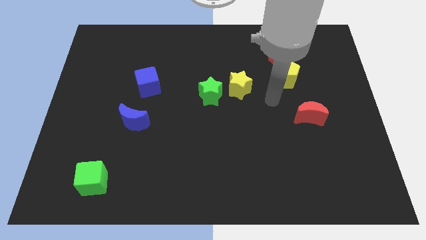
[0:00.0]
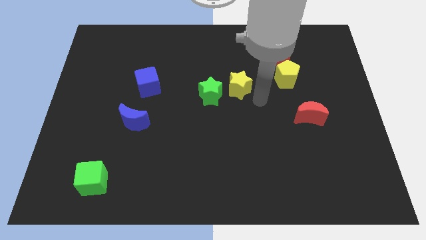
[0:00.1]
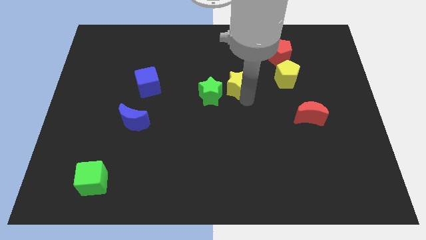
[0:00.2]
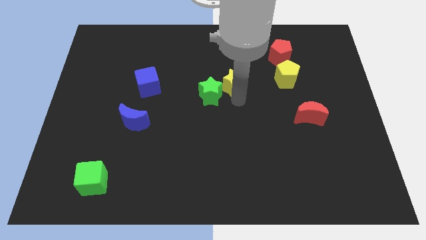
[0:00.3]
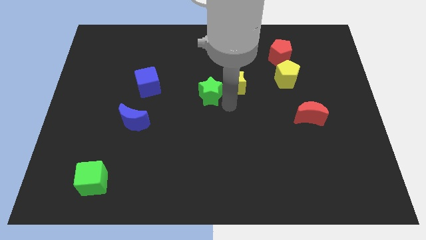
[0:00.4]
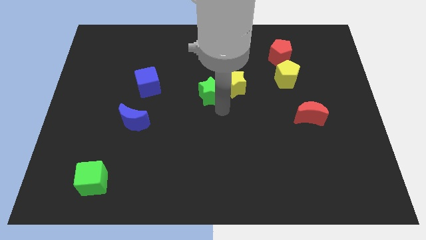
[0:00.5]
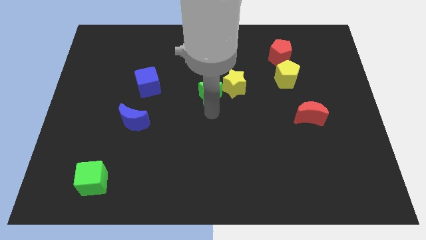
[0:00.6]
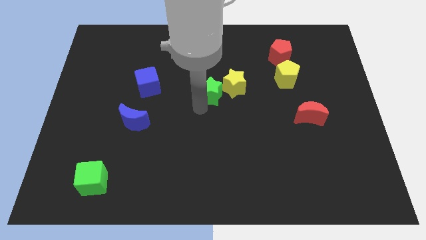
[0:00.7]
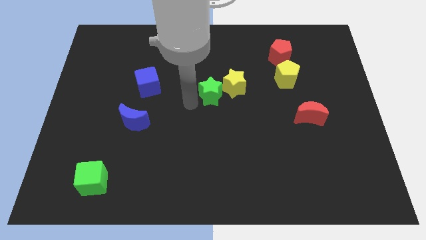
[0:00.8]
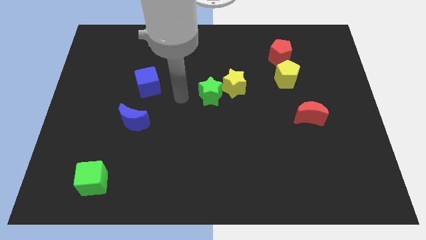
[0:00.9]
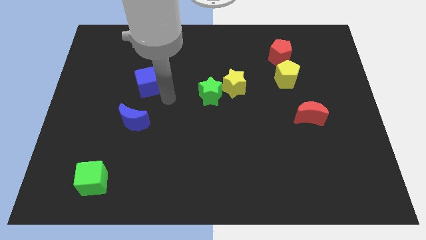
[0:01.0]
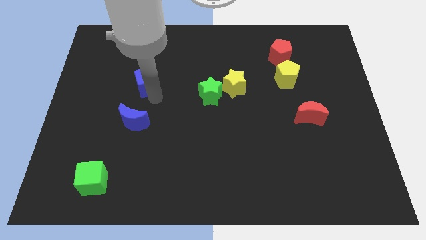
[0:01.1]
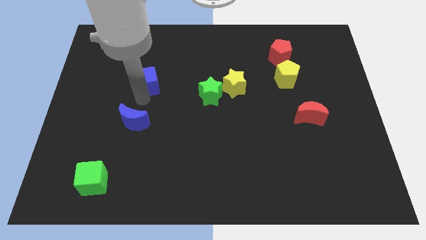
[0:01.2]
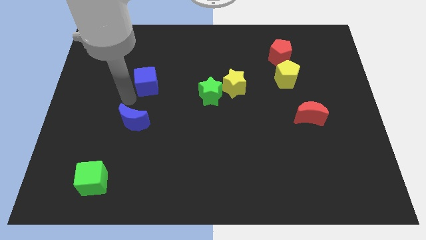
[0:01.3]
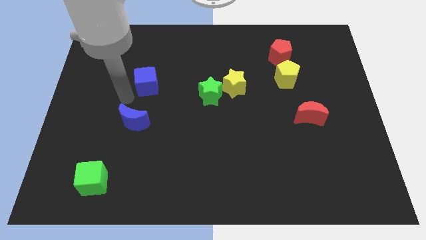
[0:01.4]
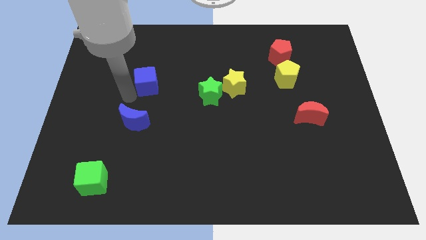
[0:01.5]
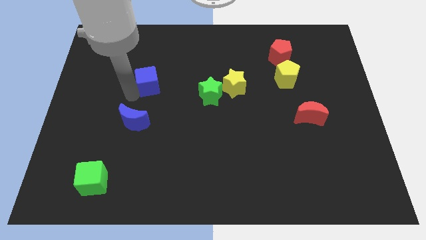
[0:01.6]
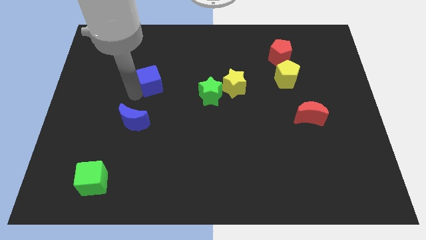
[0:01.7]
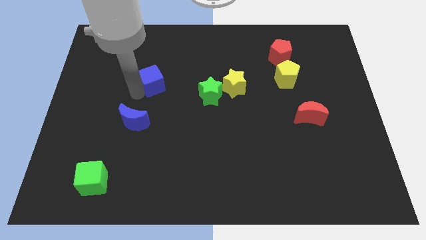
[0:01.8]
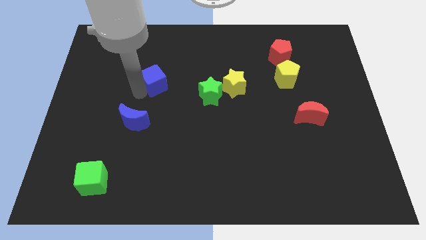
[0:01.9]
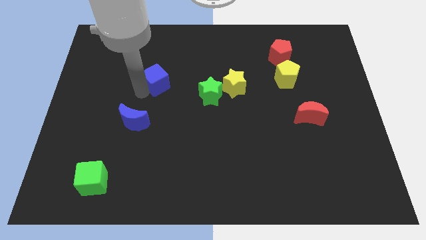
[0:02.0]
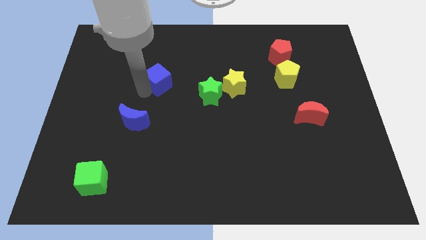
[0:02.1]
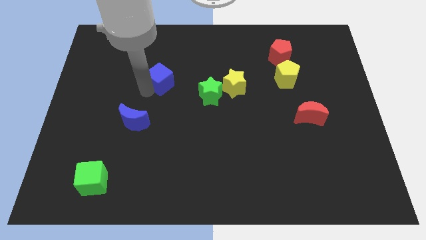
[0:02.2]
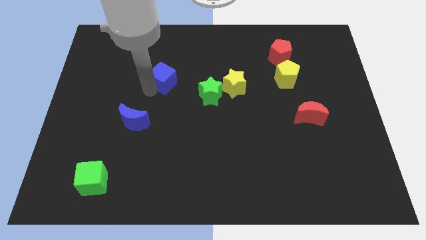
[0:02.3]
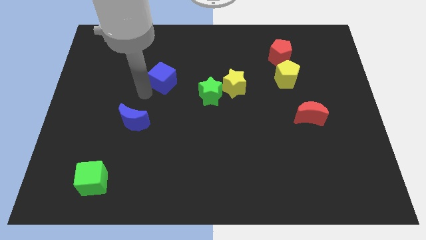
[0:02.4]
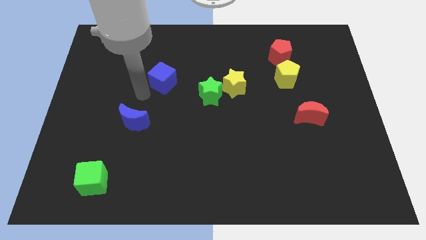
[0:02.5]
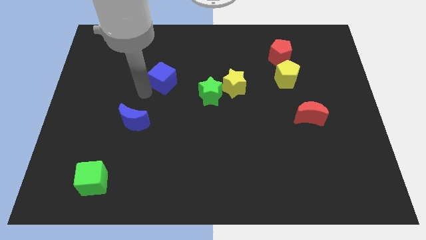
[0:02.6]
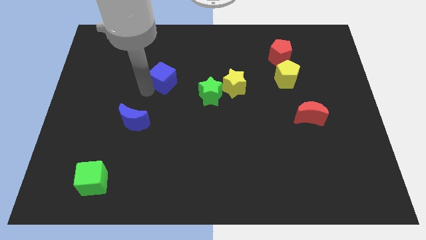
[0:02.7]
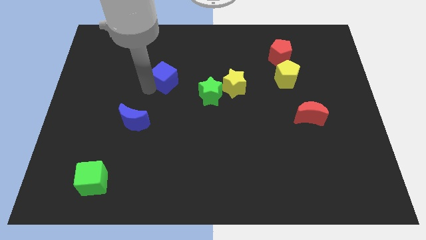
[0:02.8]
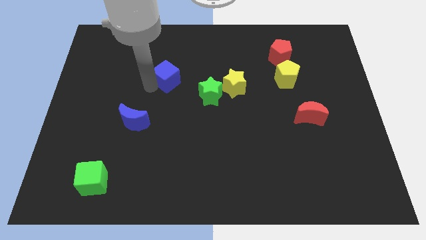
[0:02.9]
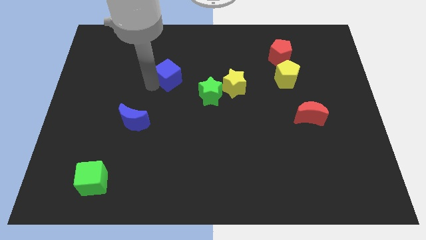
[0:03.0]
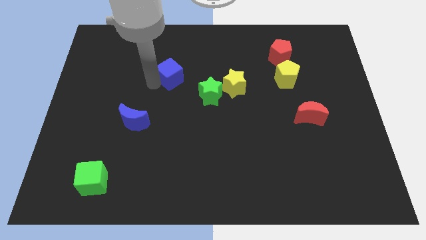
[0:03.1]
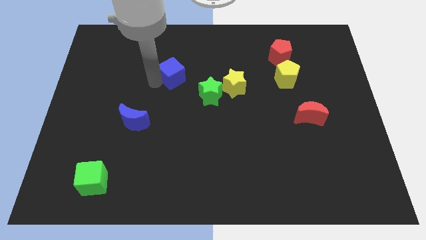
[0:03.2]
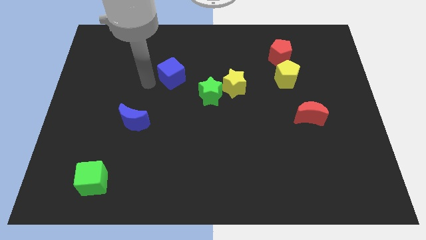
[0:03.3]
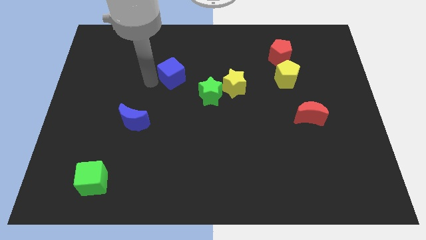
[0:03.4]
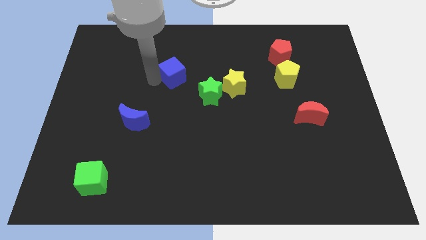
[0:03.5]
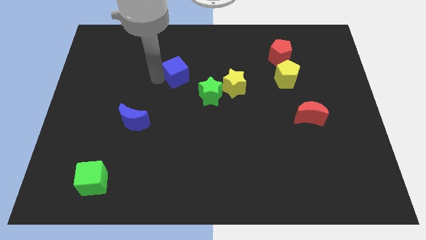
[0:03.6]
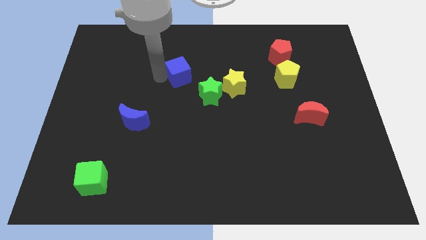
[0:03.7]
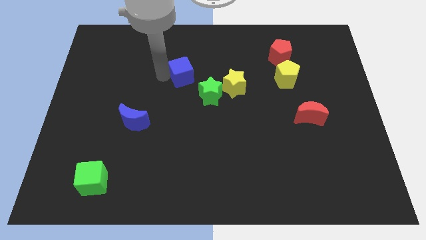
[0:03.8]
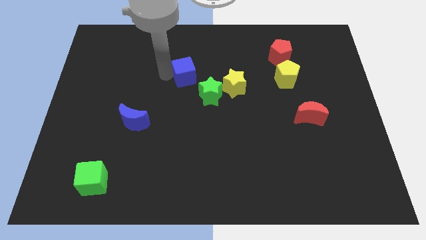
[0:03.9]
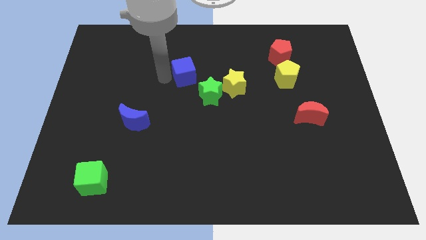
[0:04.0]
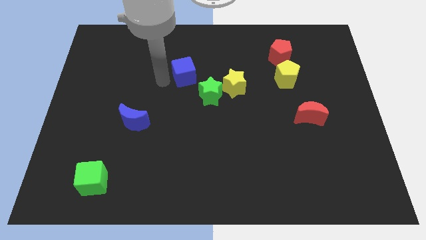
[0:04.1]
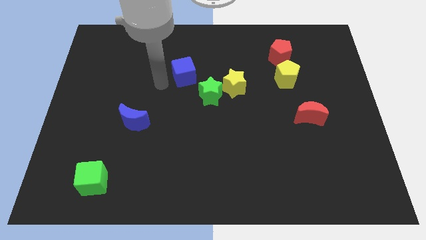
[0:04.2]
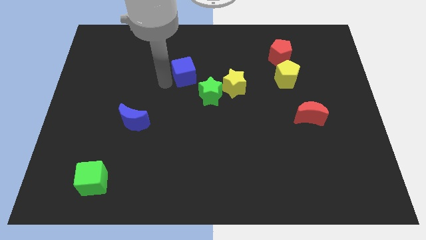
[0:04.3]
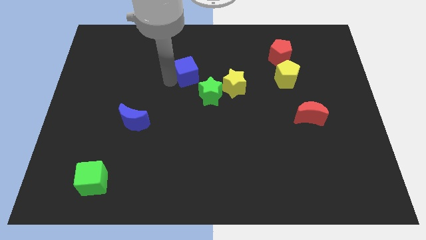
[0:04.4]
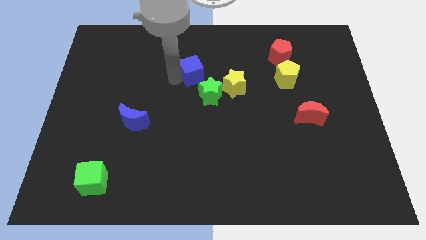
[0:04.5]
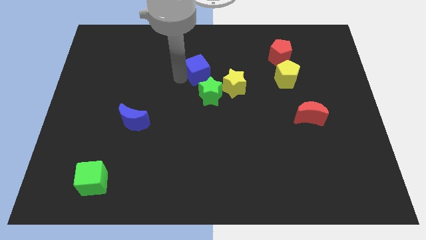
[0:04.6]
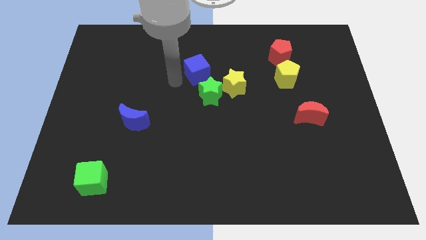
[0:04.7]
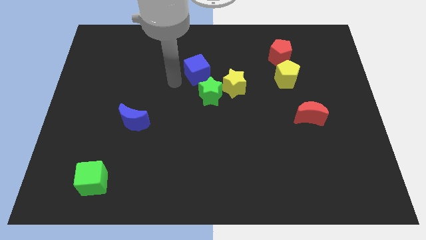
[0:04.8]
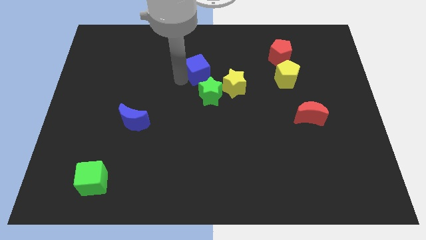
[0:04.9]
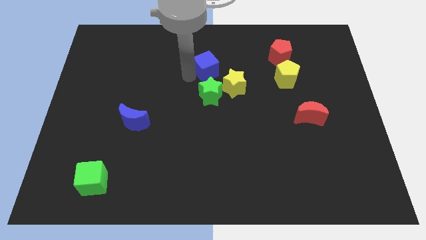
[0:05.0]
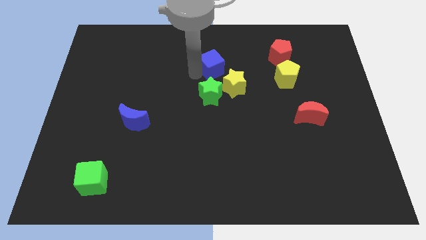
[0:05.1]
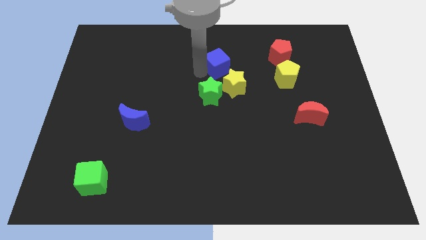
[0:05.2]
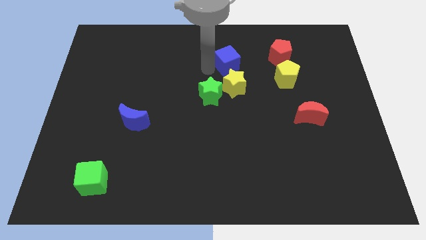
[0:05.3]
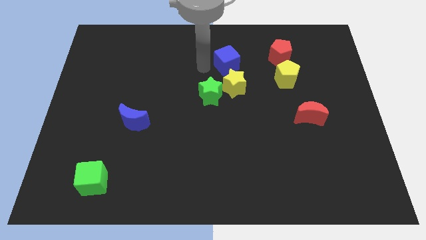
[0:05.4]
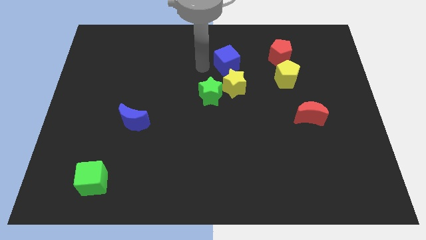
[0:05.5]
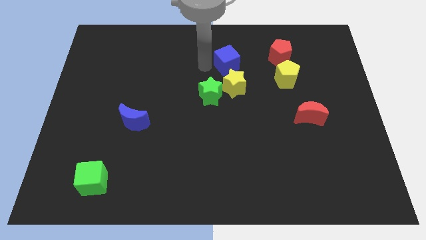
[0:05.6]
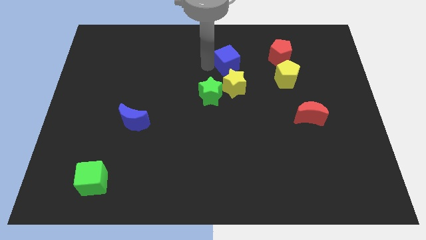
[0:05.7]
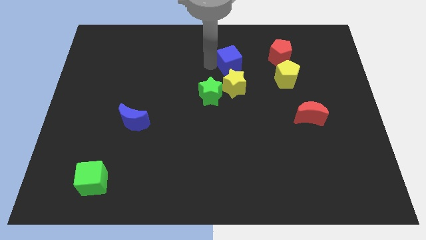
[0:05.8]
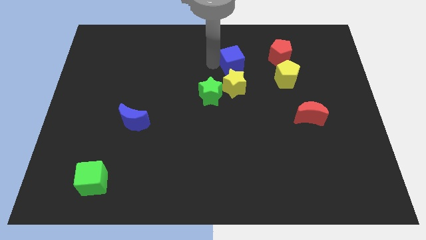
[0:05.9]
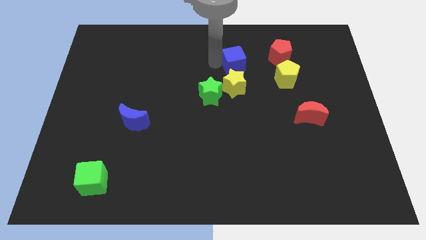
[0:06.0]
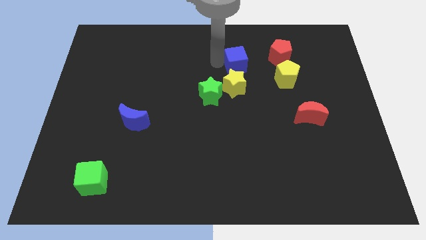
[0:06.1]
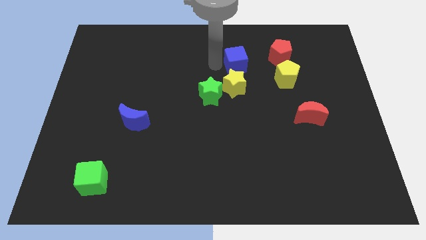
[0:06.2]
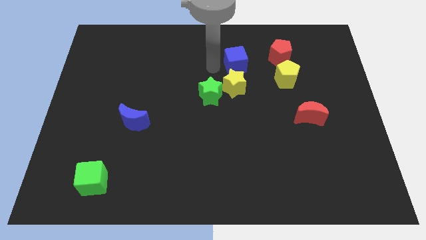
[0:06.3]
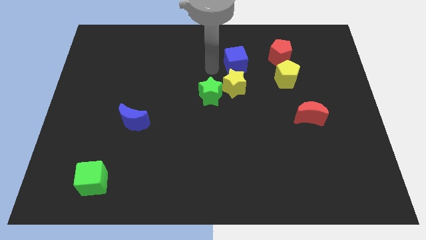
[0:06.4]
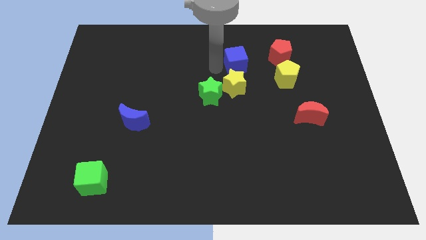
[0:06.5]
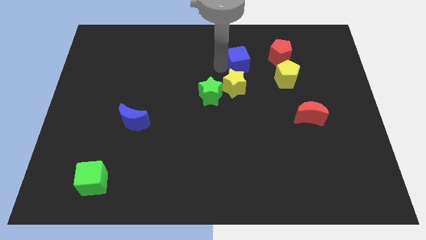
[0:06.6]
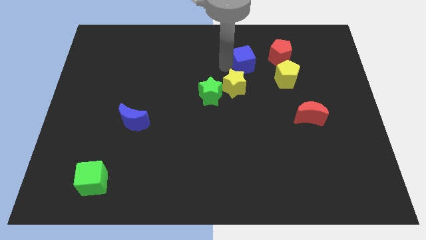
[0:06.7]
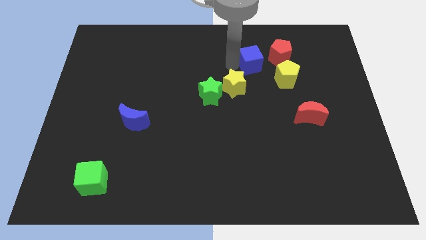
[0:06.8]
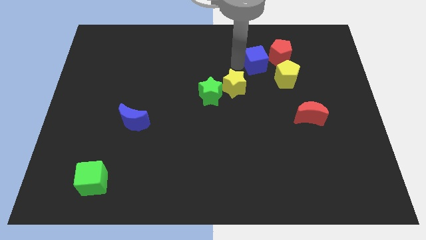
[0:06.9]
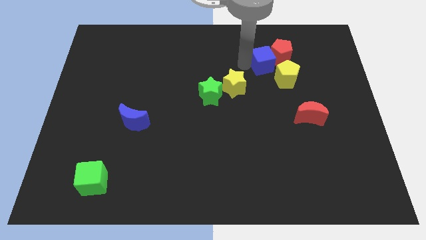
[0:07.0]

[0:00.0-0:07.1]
move the blue cube next to the red pentagon
